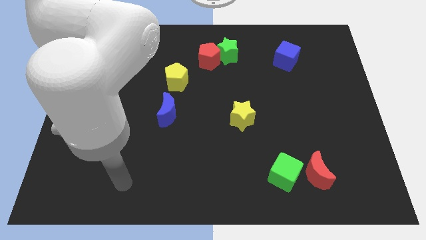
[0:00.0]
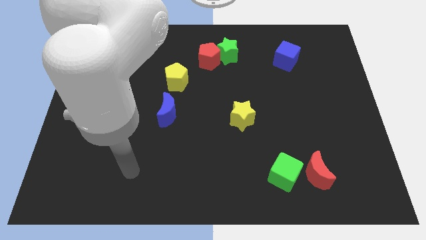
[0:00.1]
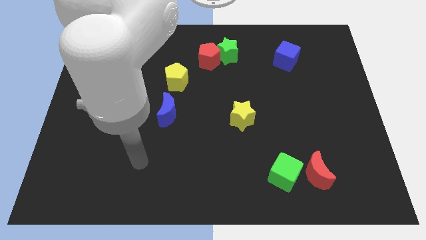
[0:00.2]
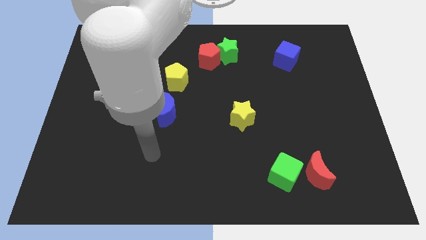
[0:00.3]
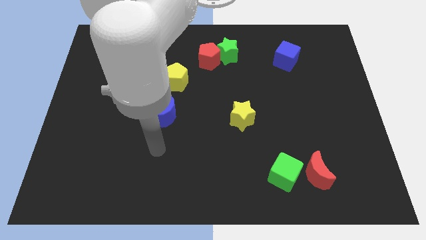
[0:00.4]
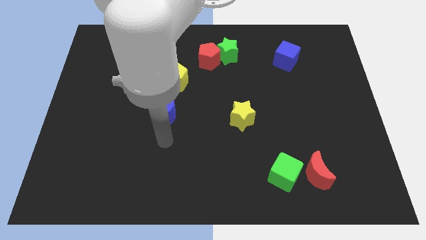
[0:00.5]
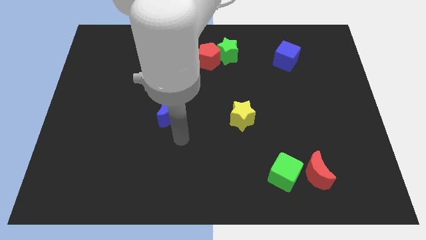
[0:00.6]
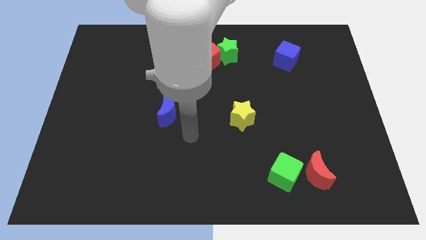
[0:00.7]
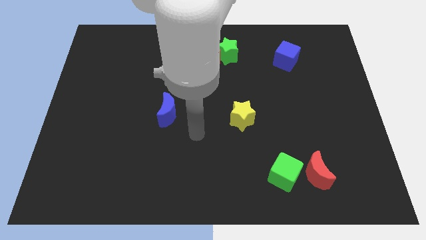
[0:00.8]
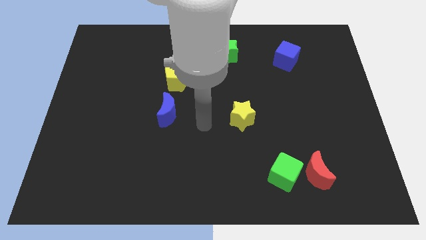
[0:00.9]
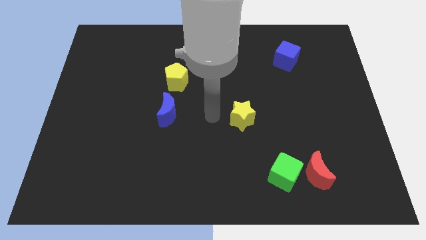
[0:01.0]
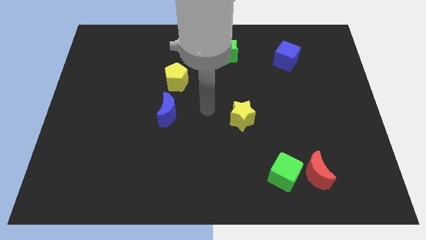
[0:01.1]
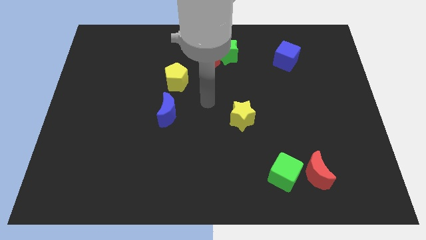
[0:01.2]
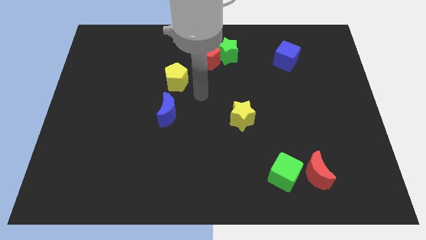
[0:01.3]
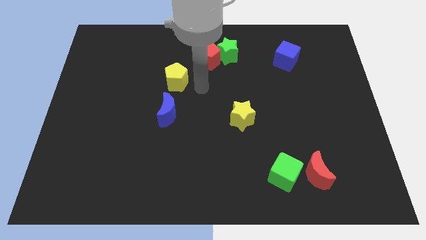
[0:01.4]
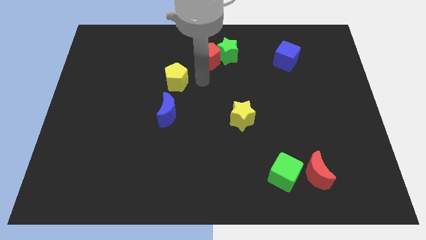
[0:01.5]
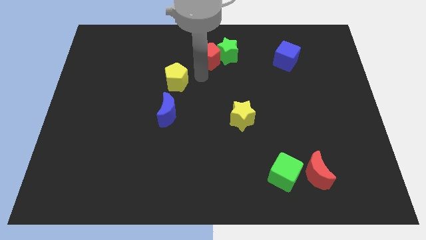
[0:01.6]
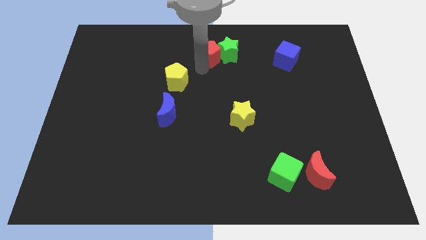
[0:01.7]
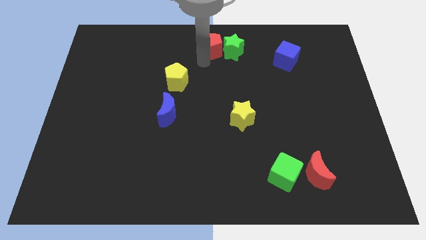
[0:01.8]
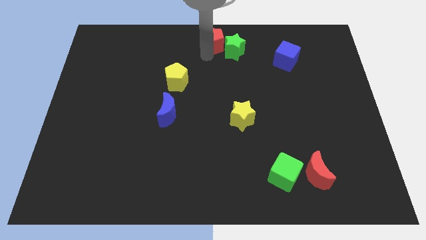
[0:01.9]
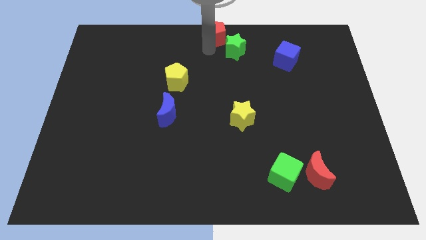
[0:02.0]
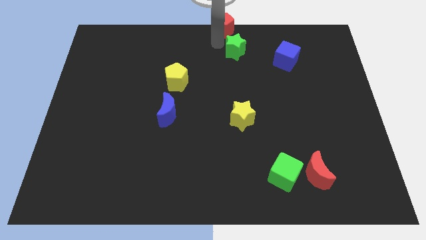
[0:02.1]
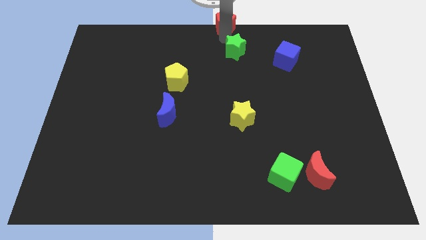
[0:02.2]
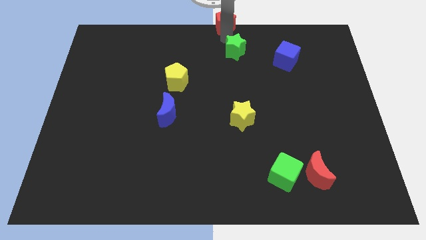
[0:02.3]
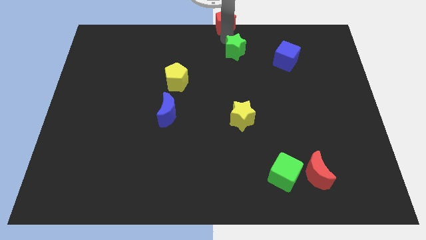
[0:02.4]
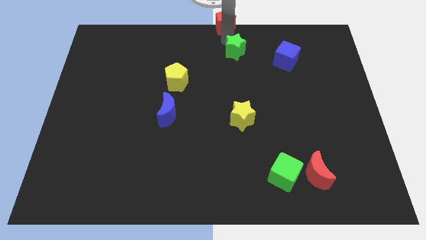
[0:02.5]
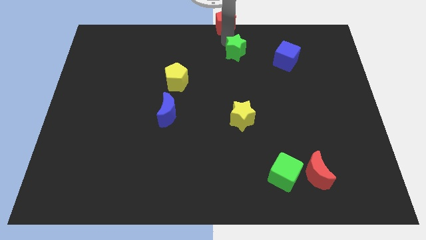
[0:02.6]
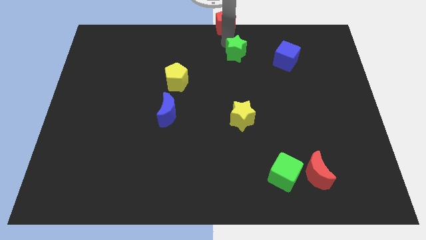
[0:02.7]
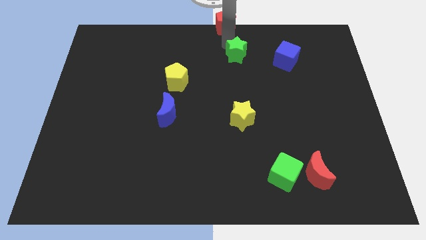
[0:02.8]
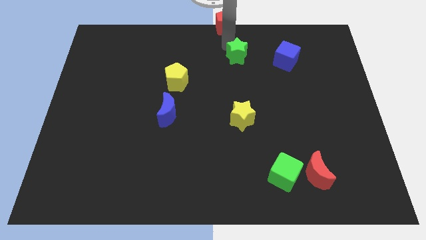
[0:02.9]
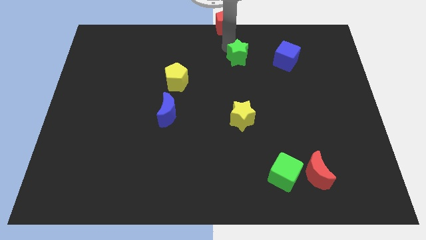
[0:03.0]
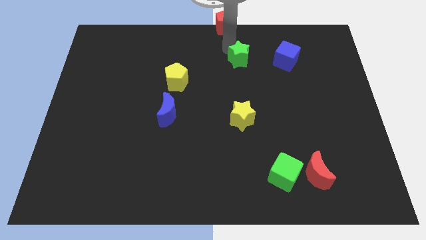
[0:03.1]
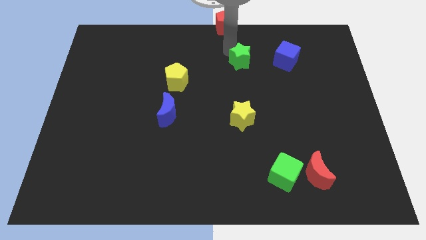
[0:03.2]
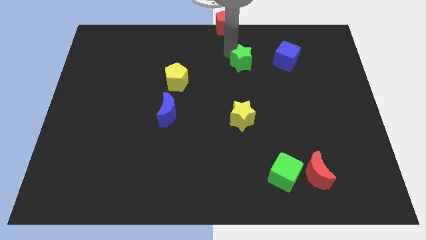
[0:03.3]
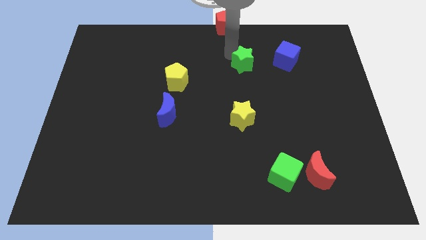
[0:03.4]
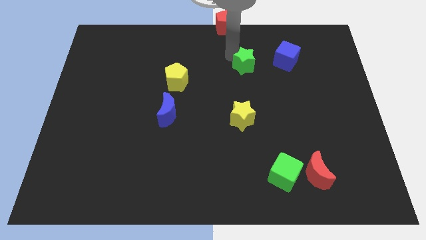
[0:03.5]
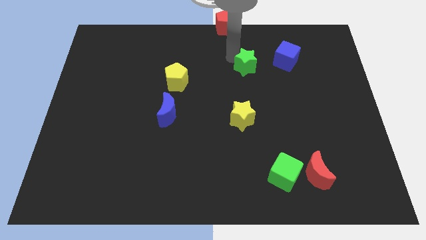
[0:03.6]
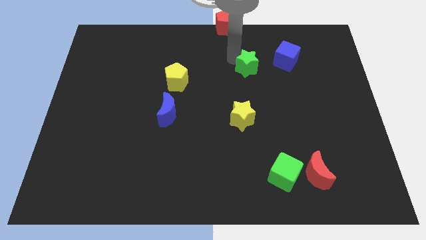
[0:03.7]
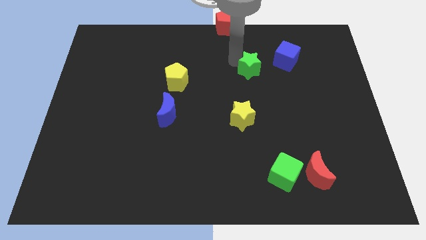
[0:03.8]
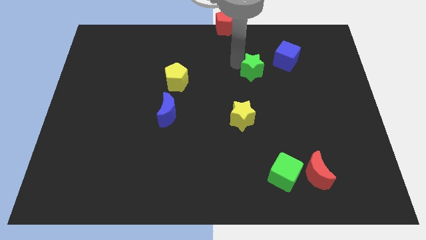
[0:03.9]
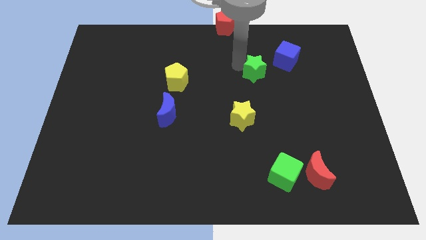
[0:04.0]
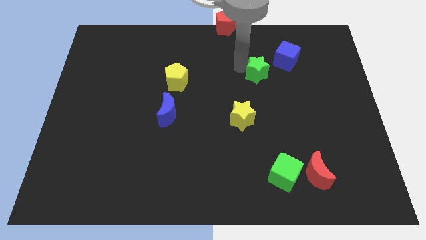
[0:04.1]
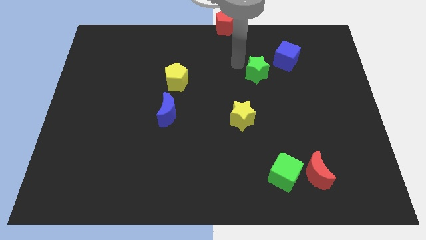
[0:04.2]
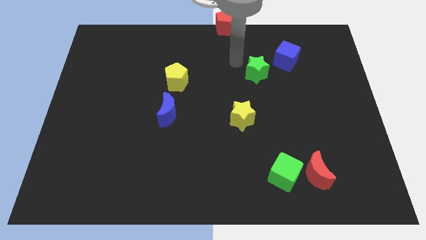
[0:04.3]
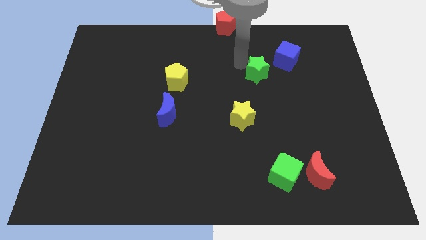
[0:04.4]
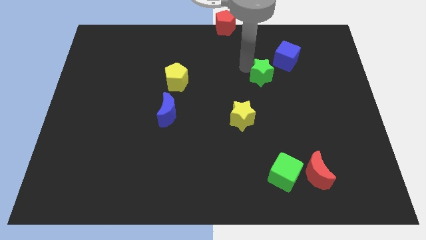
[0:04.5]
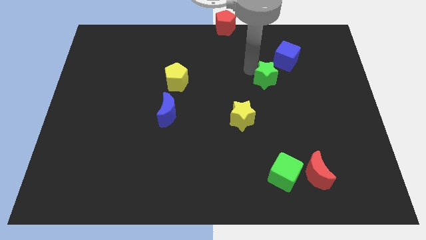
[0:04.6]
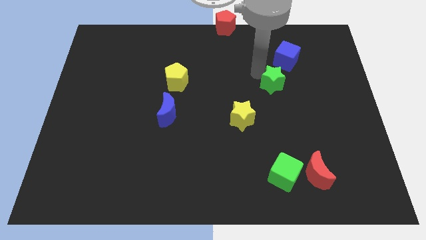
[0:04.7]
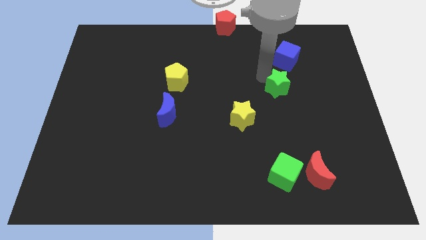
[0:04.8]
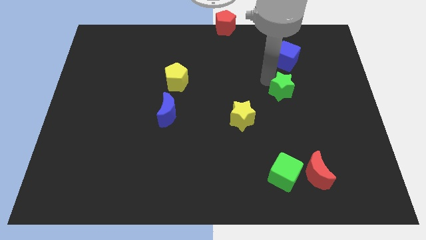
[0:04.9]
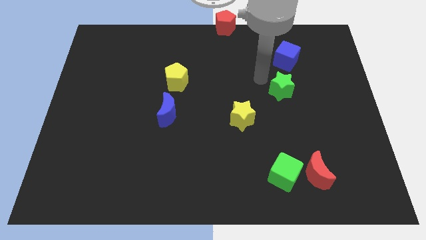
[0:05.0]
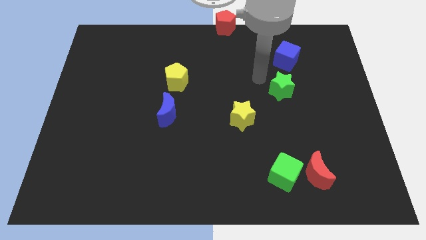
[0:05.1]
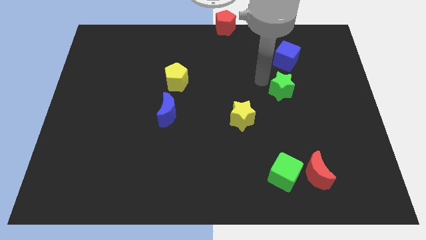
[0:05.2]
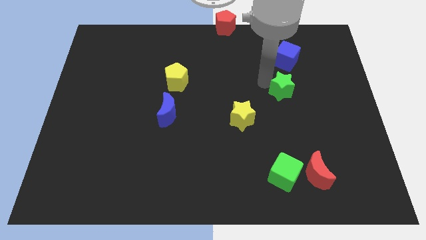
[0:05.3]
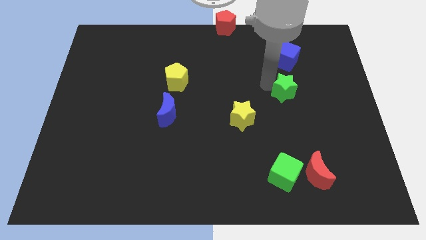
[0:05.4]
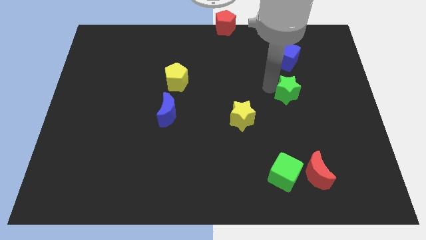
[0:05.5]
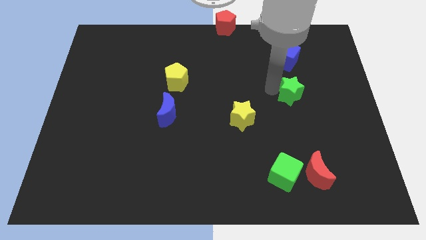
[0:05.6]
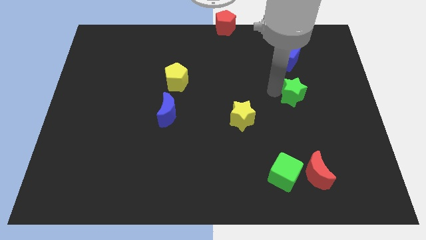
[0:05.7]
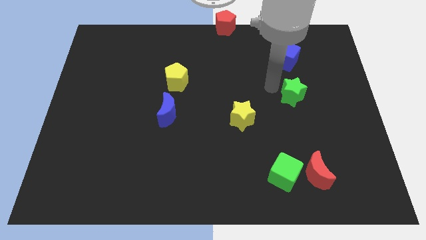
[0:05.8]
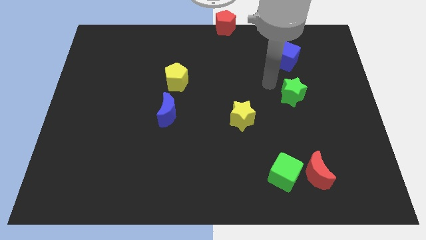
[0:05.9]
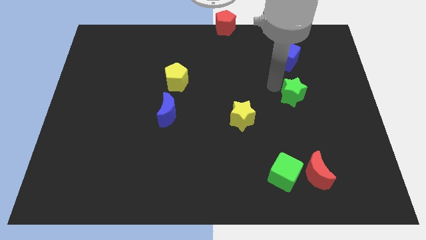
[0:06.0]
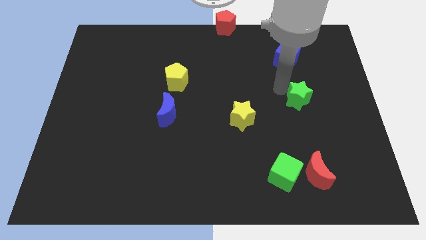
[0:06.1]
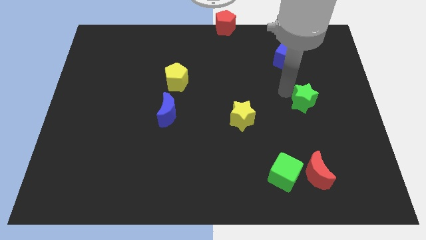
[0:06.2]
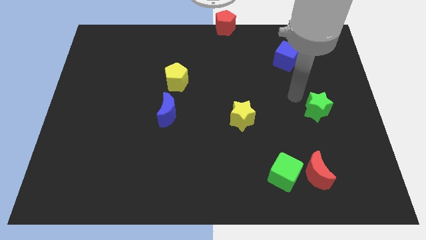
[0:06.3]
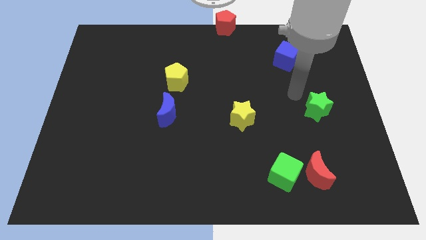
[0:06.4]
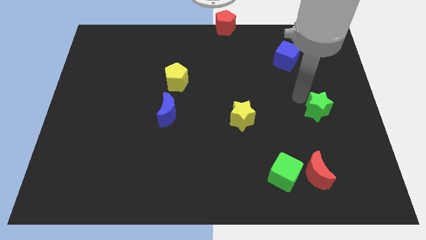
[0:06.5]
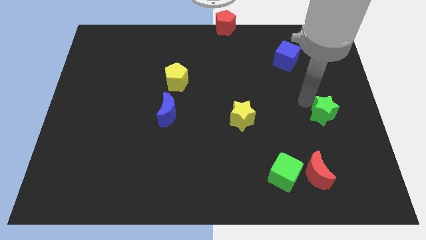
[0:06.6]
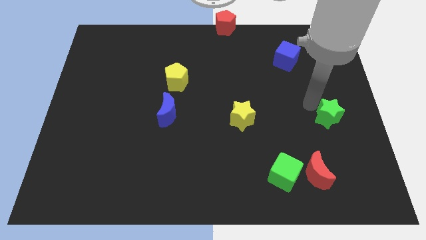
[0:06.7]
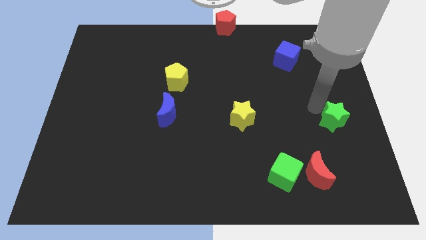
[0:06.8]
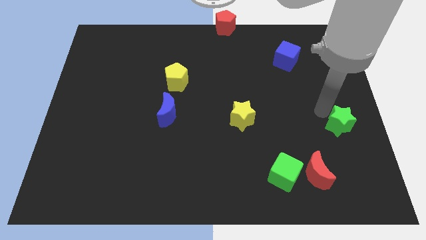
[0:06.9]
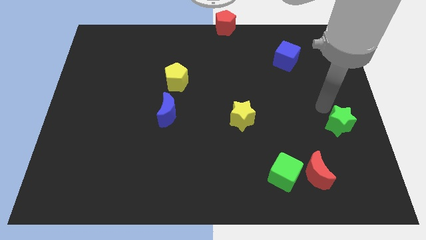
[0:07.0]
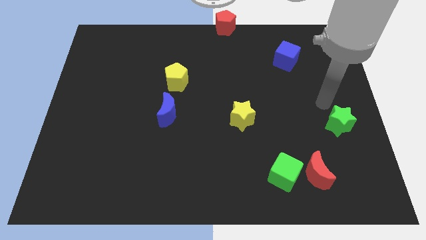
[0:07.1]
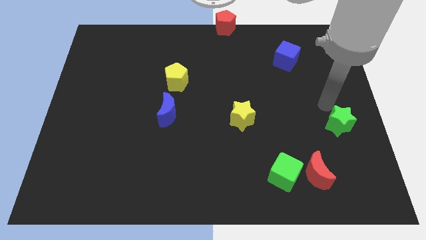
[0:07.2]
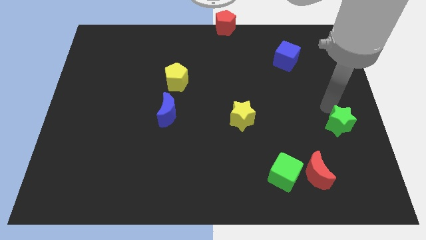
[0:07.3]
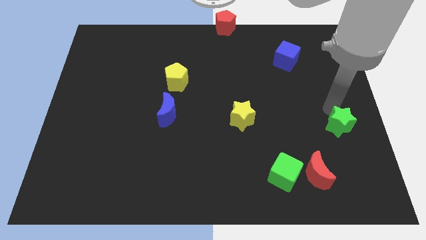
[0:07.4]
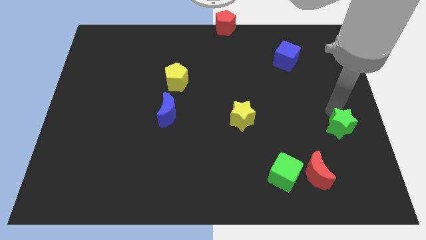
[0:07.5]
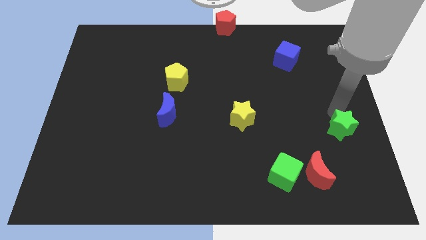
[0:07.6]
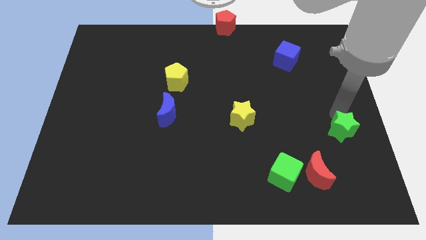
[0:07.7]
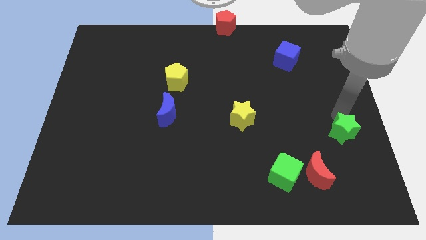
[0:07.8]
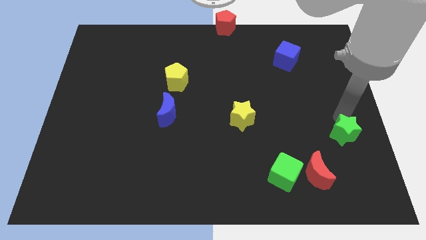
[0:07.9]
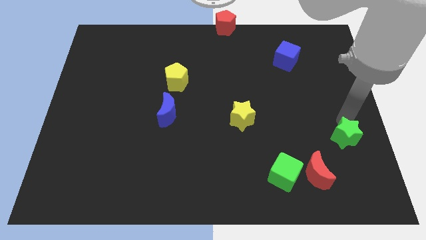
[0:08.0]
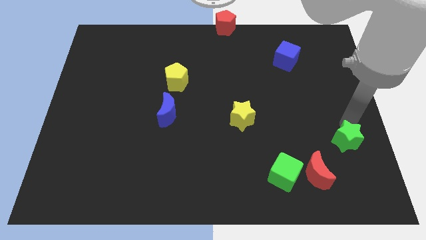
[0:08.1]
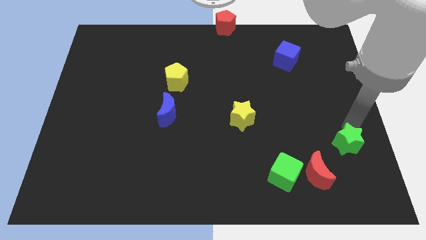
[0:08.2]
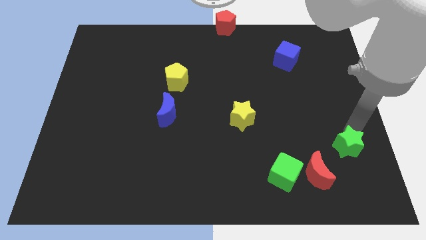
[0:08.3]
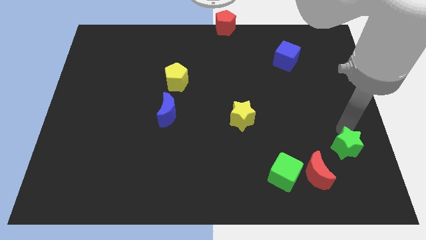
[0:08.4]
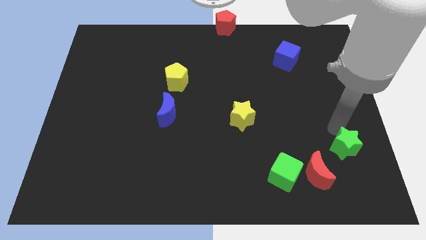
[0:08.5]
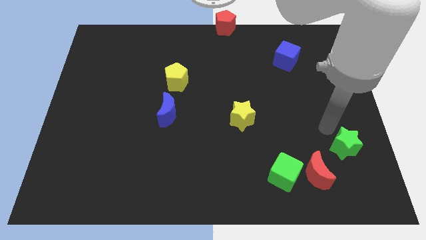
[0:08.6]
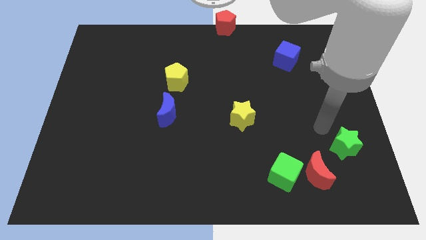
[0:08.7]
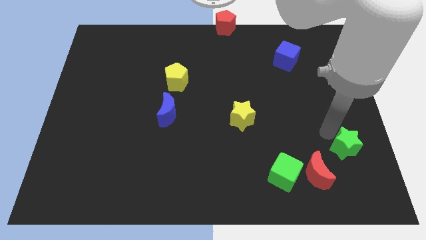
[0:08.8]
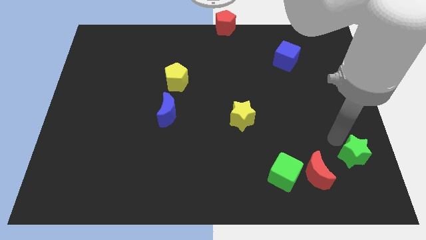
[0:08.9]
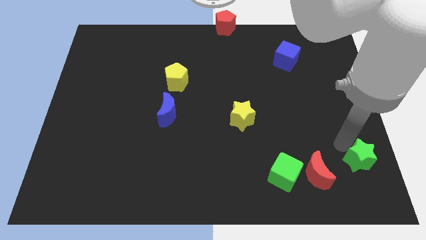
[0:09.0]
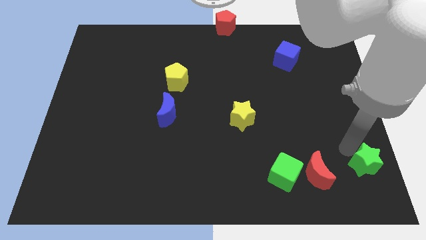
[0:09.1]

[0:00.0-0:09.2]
move the green star to the bottom right
